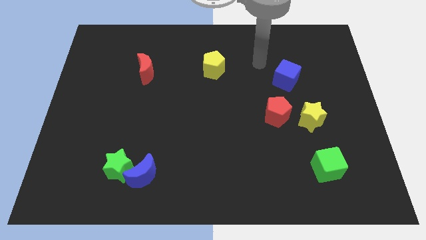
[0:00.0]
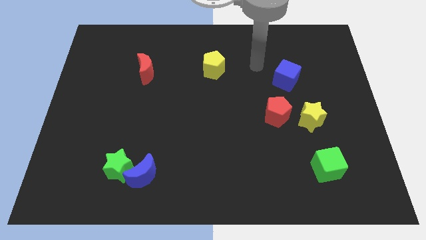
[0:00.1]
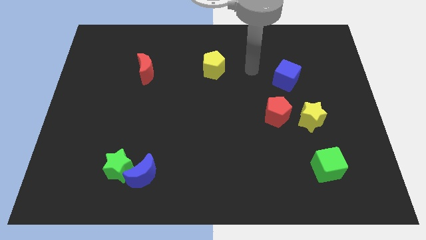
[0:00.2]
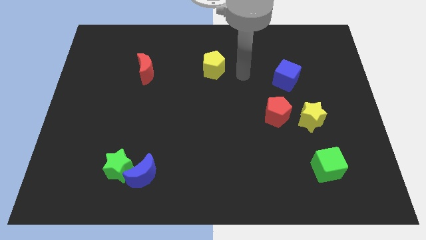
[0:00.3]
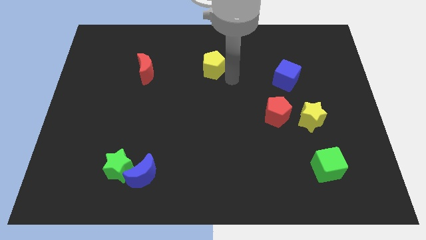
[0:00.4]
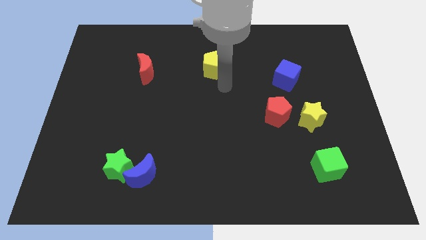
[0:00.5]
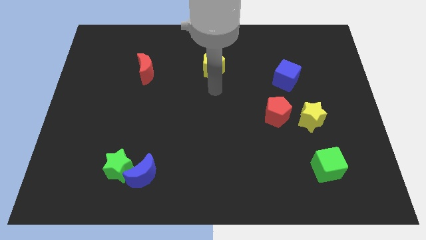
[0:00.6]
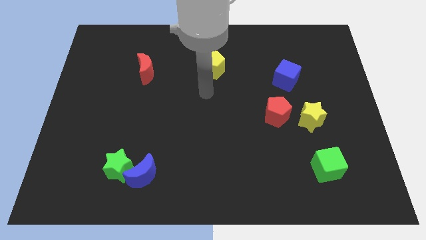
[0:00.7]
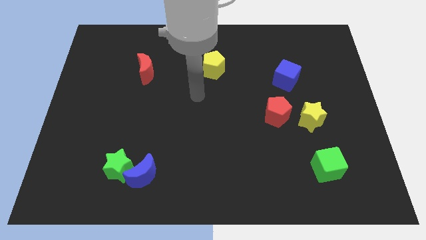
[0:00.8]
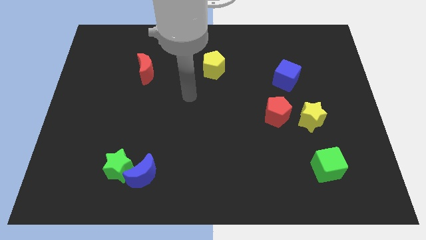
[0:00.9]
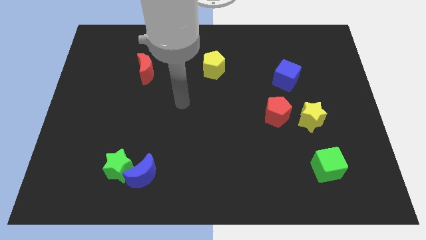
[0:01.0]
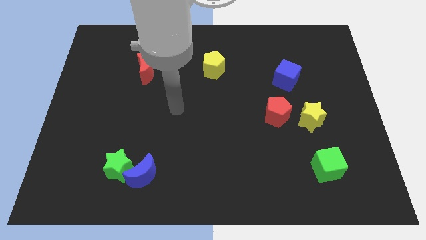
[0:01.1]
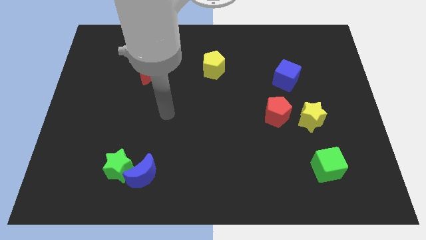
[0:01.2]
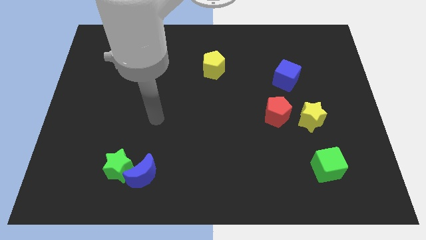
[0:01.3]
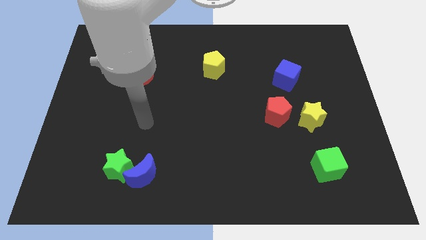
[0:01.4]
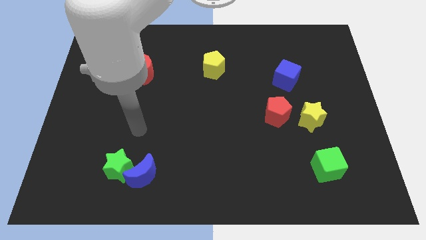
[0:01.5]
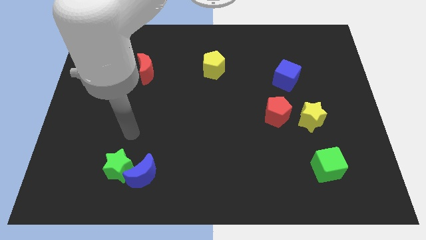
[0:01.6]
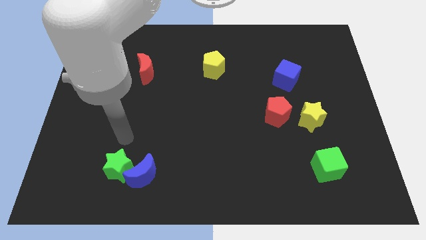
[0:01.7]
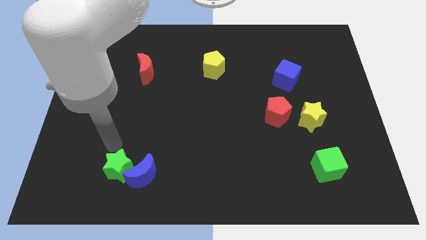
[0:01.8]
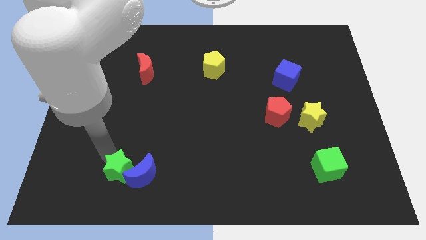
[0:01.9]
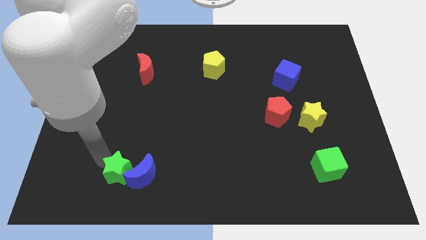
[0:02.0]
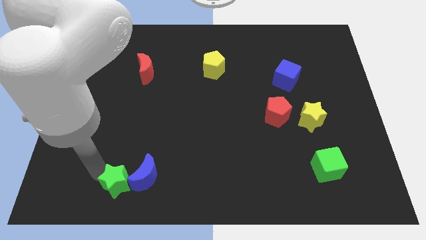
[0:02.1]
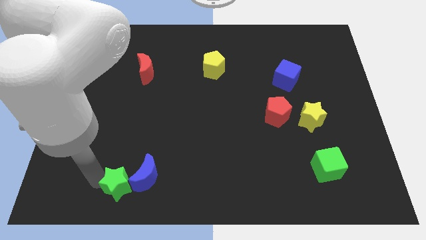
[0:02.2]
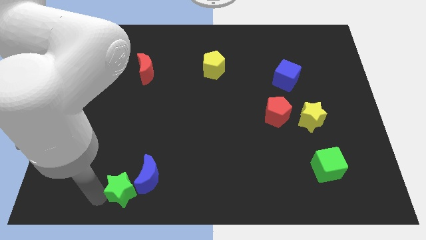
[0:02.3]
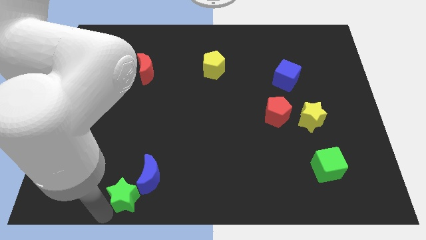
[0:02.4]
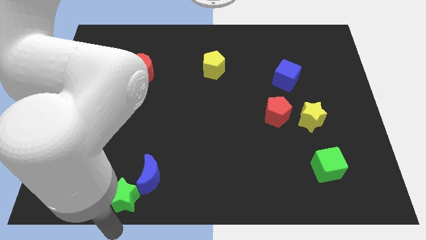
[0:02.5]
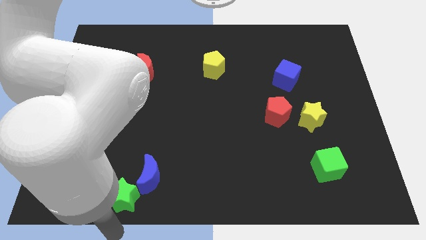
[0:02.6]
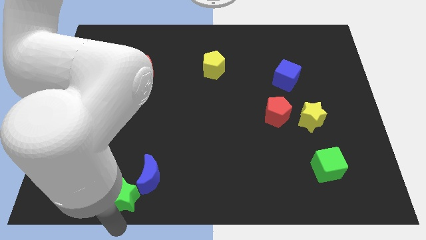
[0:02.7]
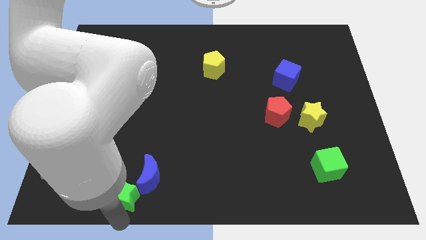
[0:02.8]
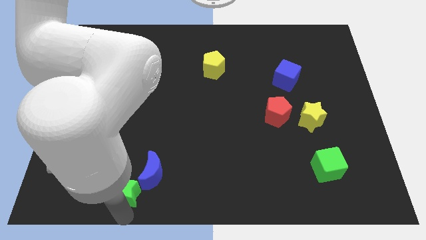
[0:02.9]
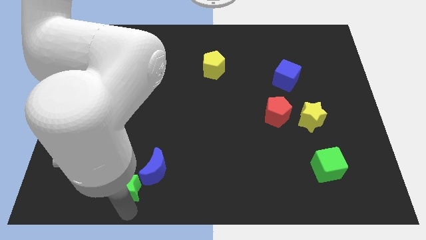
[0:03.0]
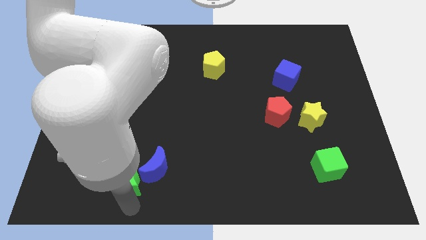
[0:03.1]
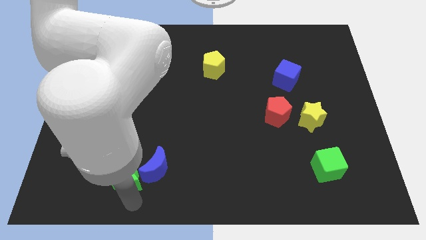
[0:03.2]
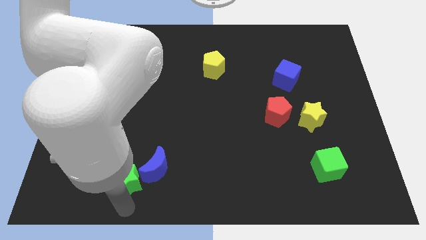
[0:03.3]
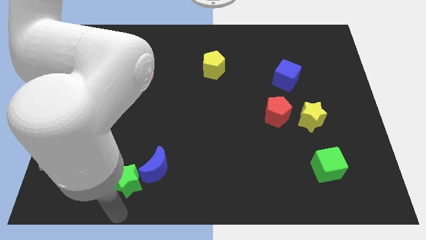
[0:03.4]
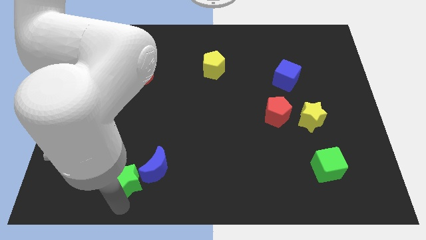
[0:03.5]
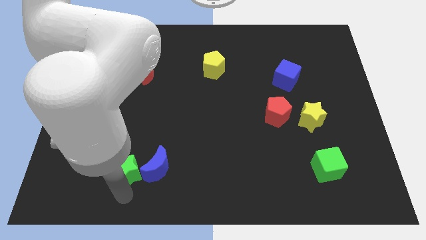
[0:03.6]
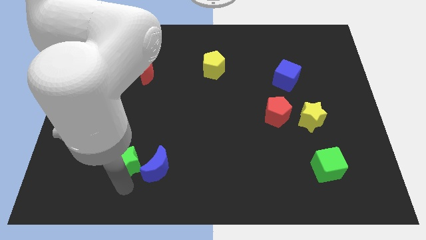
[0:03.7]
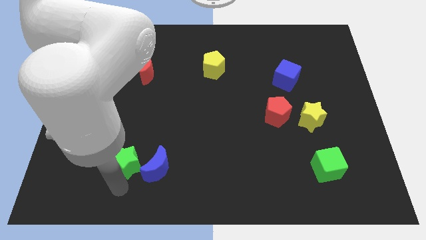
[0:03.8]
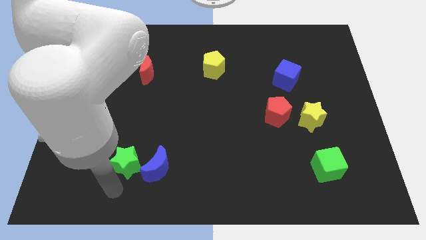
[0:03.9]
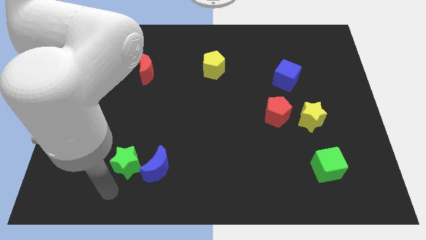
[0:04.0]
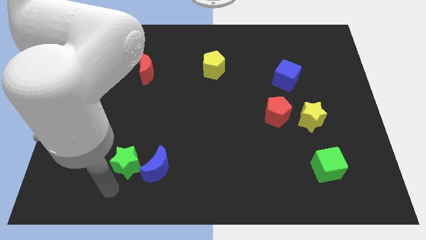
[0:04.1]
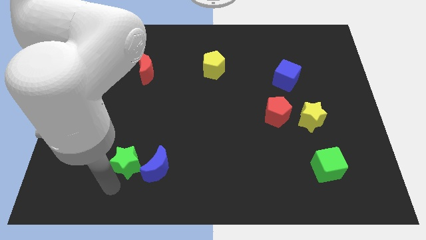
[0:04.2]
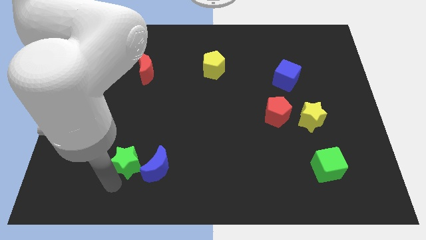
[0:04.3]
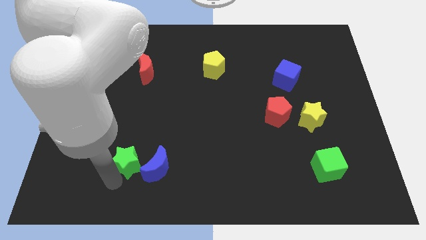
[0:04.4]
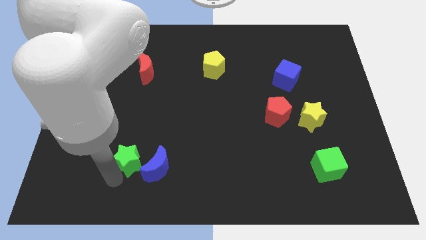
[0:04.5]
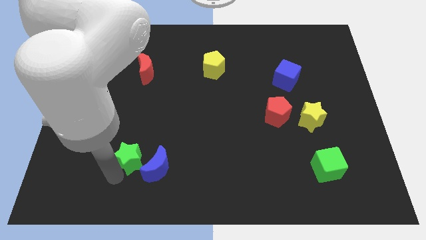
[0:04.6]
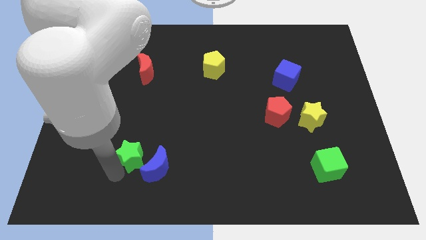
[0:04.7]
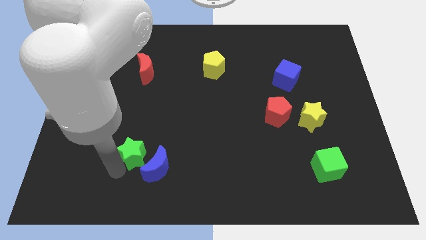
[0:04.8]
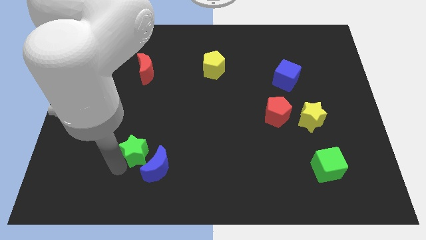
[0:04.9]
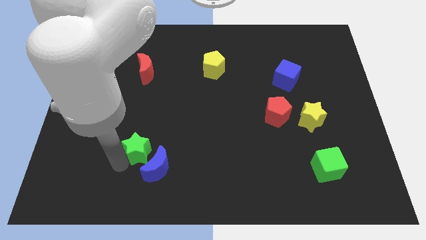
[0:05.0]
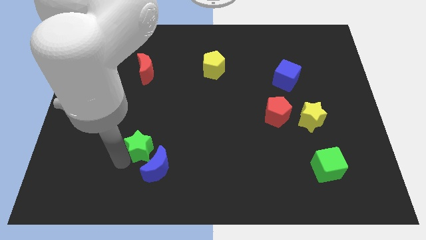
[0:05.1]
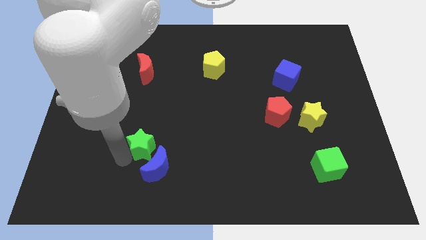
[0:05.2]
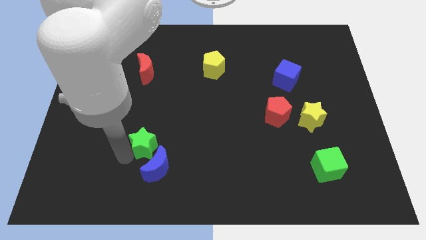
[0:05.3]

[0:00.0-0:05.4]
slightly push the green star upwards and right diagonally

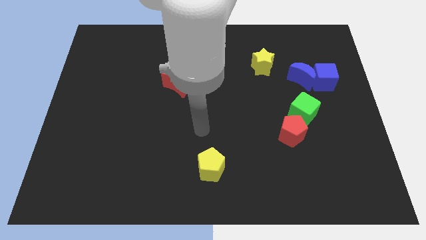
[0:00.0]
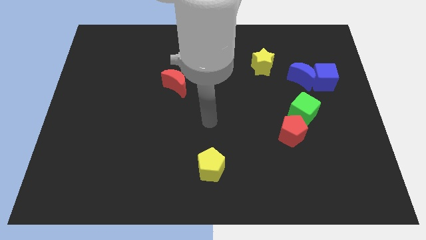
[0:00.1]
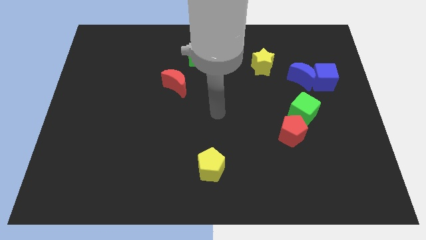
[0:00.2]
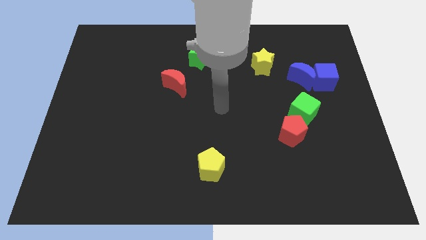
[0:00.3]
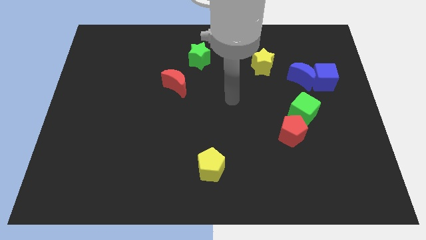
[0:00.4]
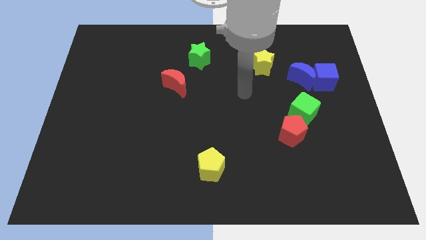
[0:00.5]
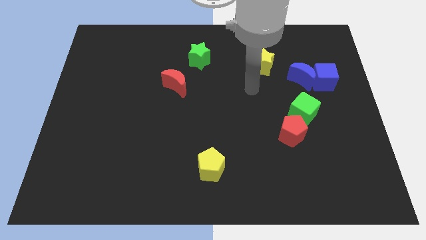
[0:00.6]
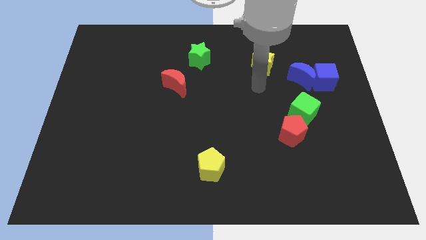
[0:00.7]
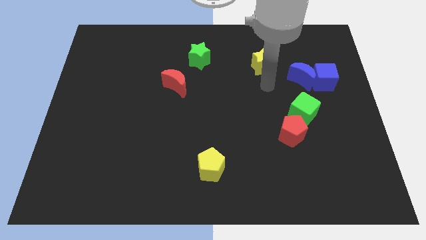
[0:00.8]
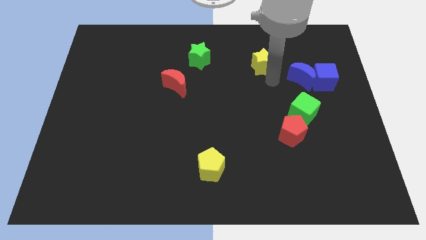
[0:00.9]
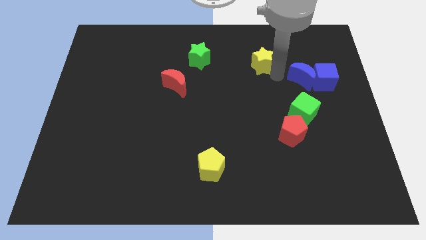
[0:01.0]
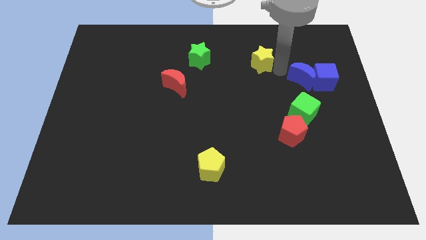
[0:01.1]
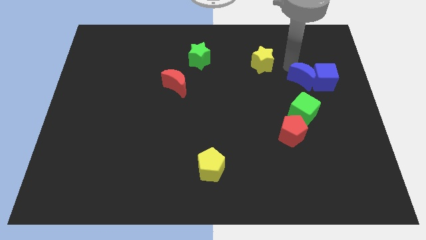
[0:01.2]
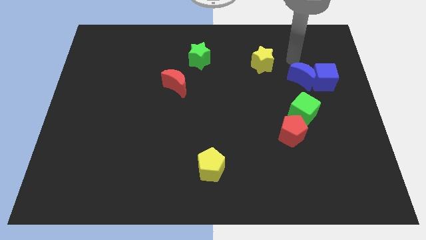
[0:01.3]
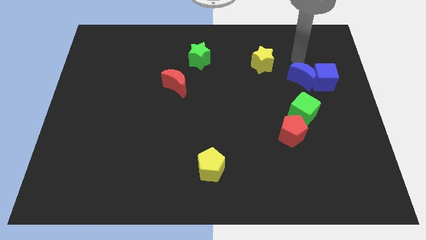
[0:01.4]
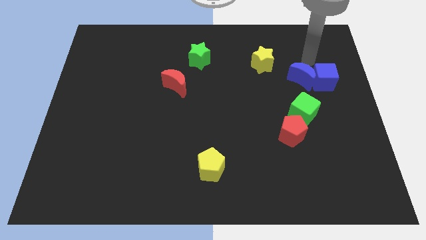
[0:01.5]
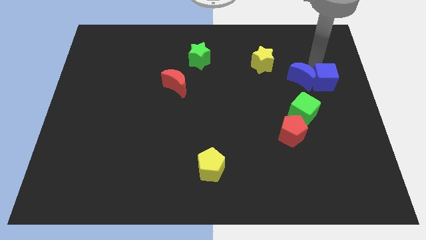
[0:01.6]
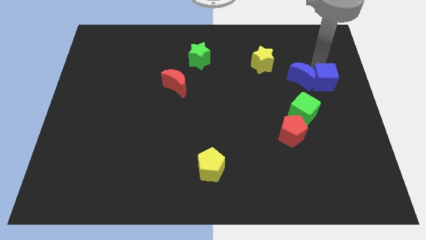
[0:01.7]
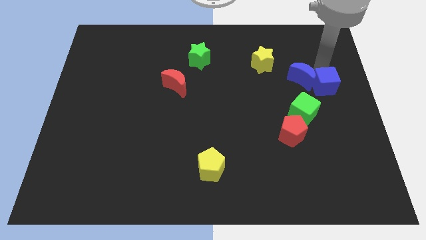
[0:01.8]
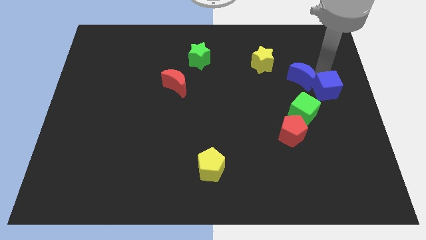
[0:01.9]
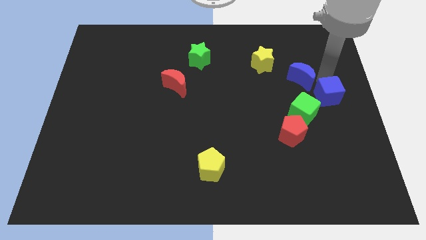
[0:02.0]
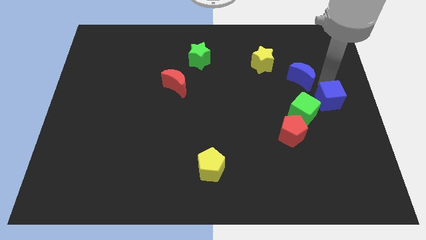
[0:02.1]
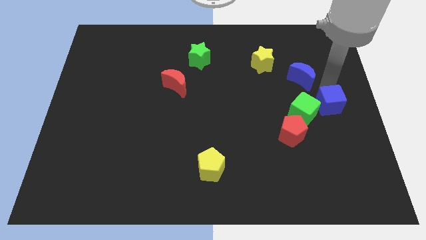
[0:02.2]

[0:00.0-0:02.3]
move the blue cube somewhat downwards

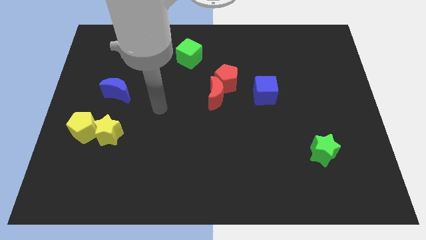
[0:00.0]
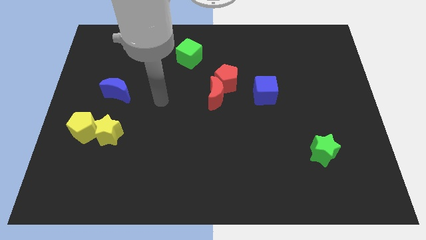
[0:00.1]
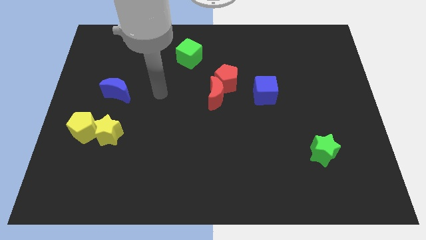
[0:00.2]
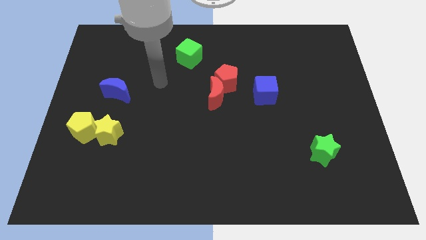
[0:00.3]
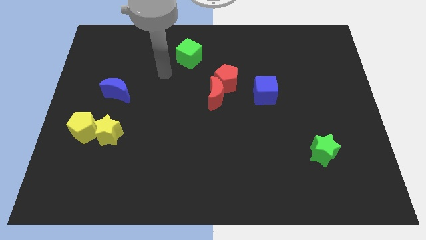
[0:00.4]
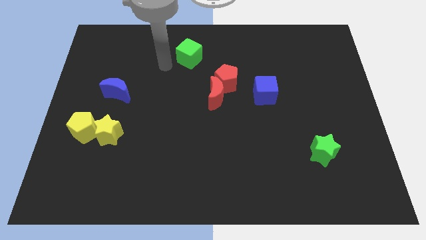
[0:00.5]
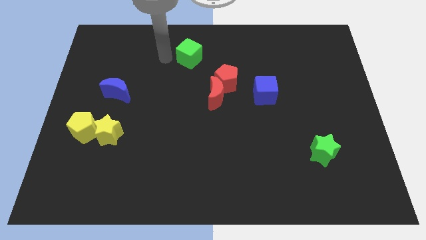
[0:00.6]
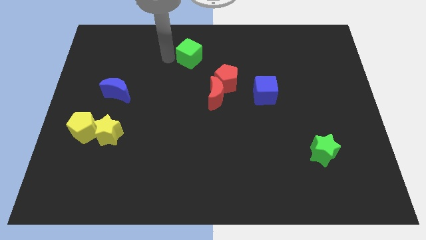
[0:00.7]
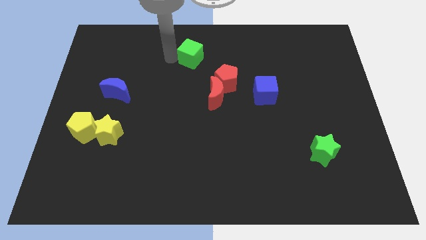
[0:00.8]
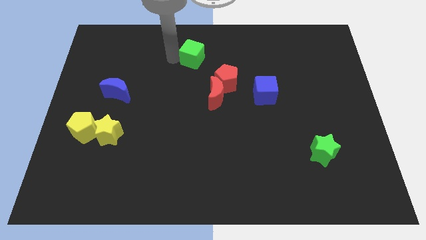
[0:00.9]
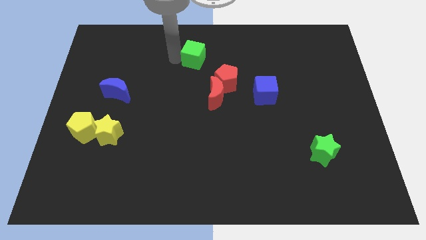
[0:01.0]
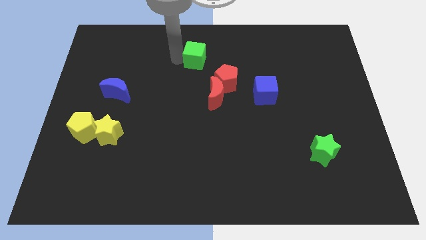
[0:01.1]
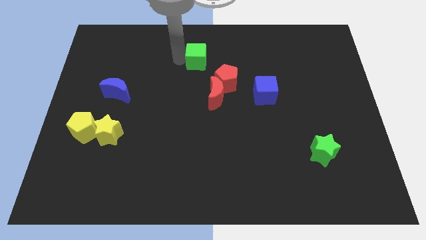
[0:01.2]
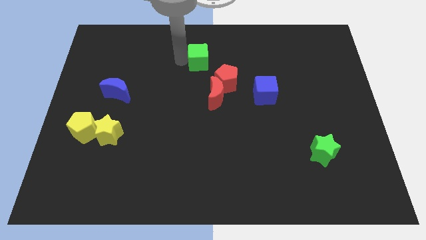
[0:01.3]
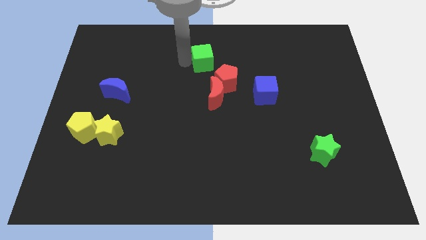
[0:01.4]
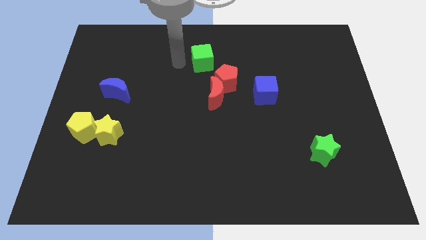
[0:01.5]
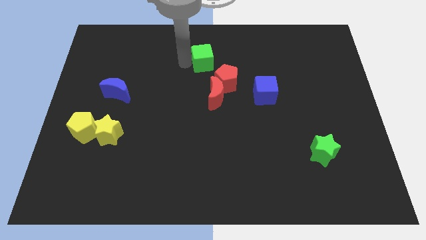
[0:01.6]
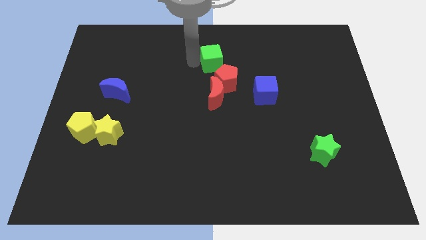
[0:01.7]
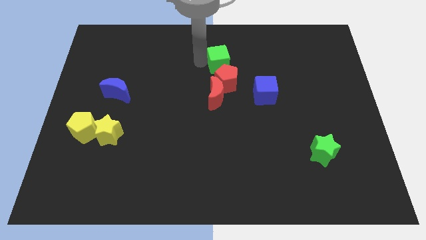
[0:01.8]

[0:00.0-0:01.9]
slightly slide the green cube to the right
